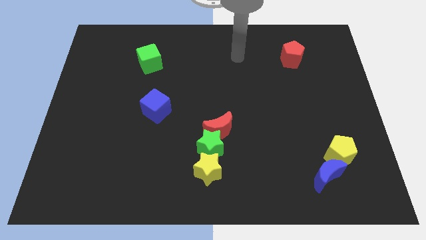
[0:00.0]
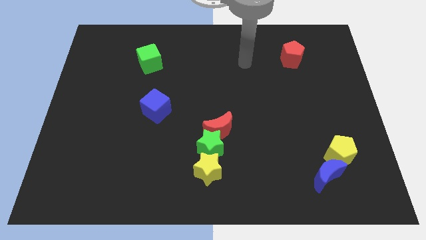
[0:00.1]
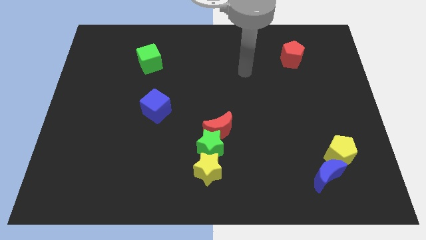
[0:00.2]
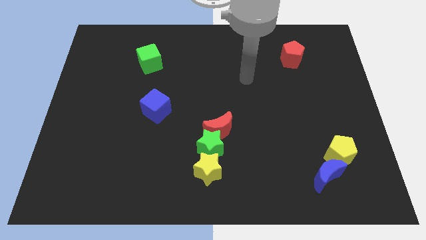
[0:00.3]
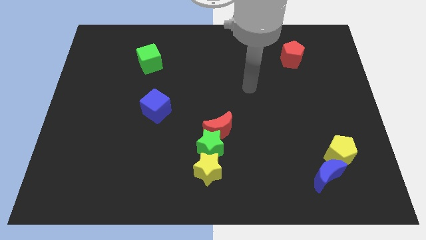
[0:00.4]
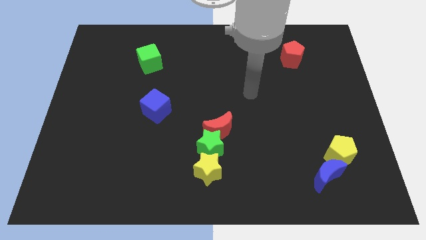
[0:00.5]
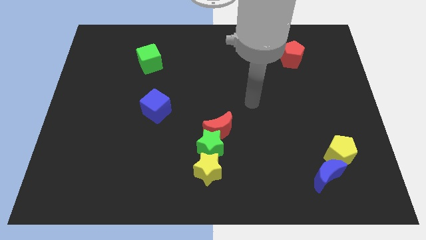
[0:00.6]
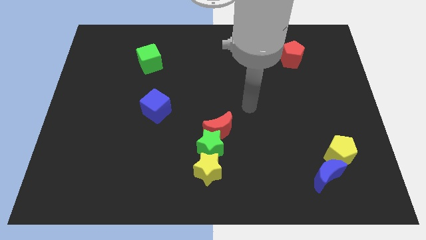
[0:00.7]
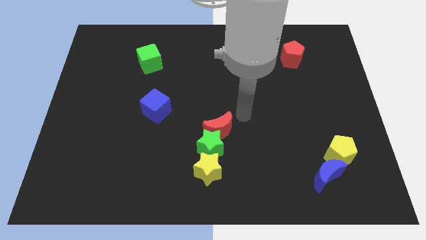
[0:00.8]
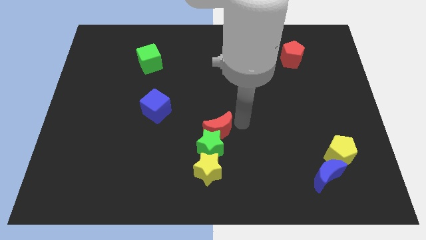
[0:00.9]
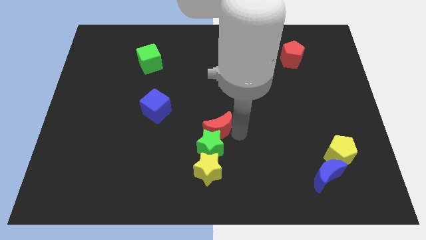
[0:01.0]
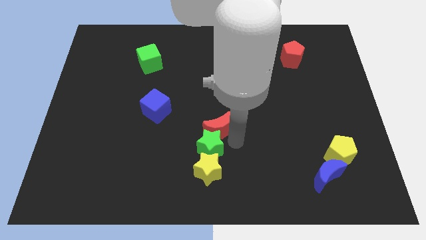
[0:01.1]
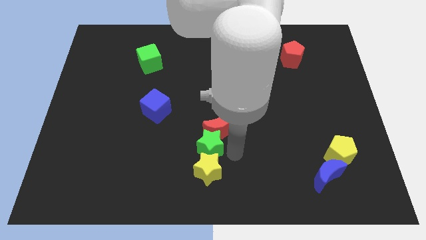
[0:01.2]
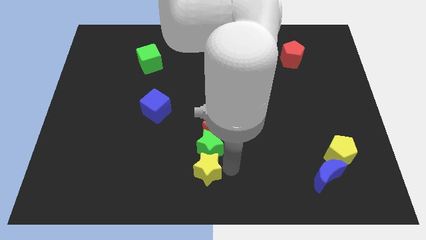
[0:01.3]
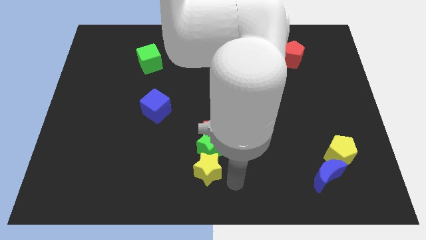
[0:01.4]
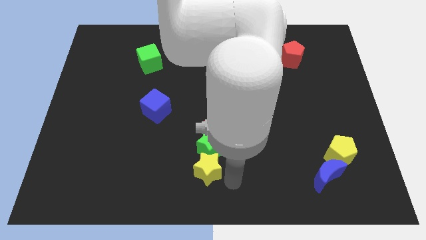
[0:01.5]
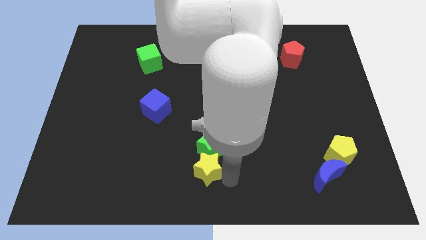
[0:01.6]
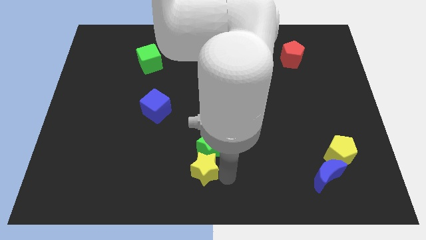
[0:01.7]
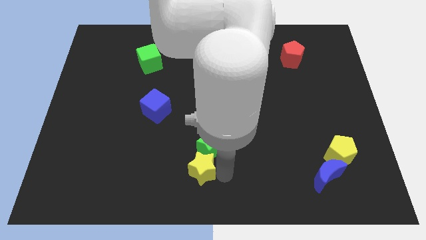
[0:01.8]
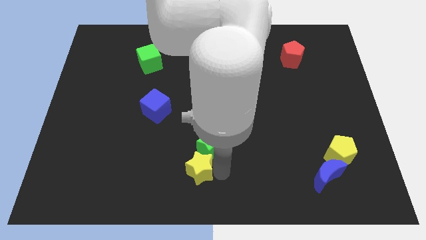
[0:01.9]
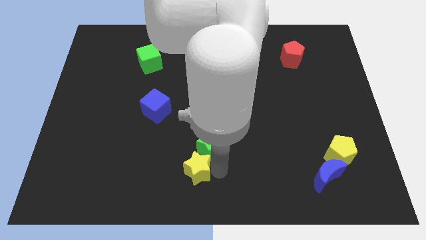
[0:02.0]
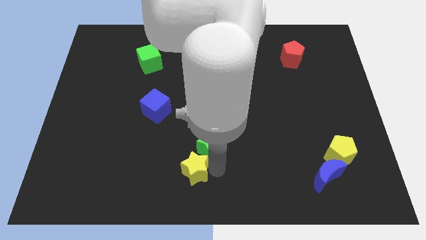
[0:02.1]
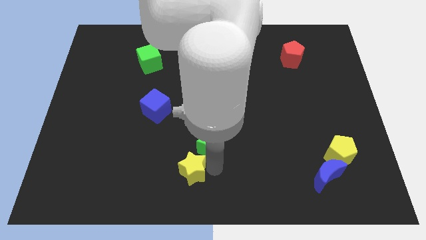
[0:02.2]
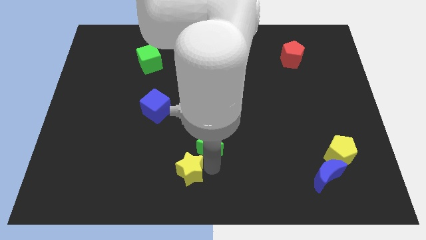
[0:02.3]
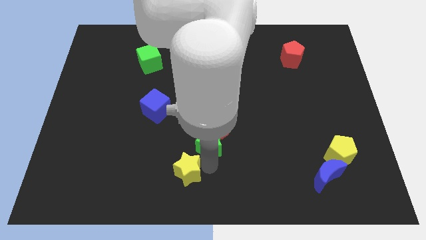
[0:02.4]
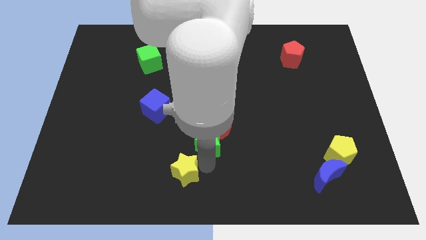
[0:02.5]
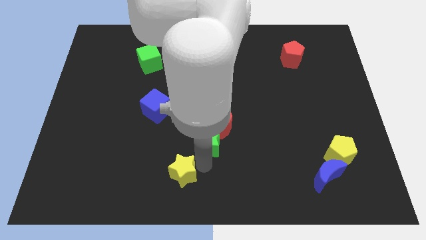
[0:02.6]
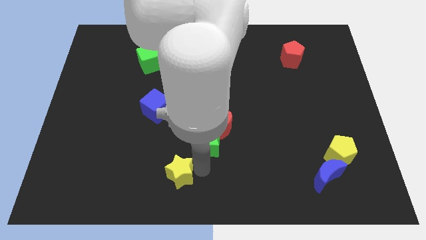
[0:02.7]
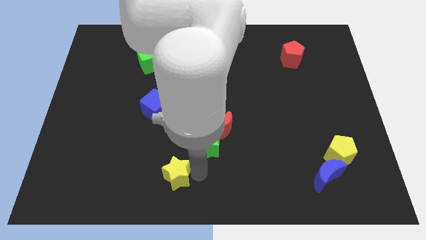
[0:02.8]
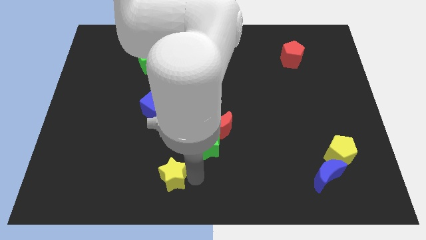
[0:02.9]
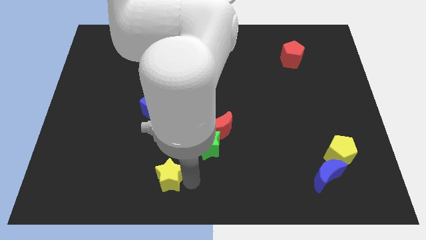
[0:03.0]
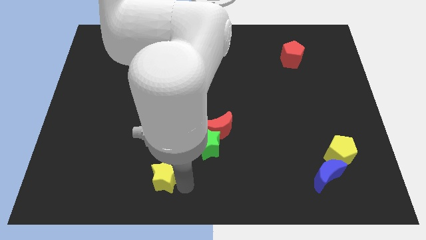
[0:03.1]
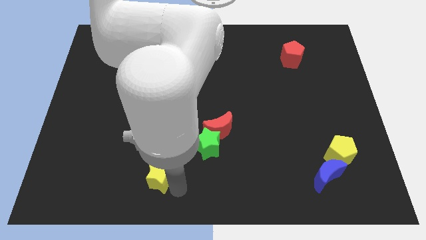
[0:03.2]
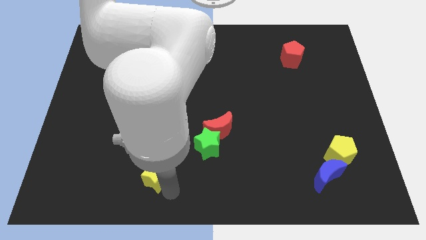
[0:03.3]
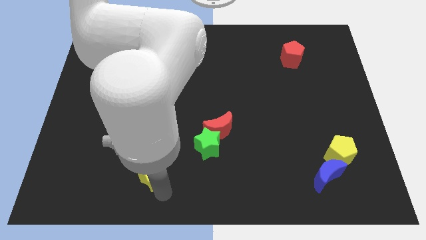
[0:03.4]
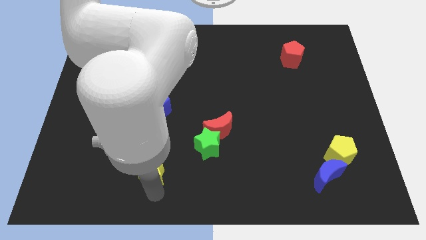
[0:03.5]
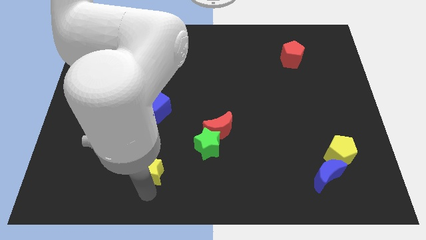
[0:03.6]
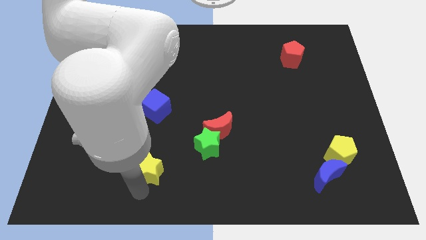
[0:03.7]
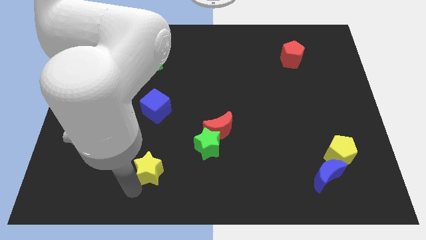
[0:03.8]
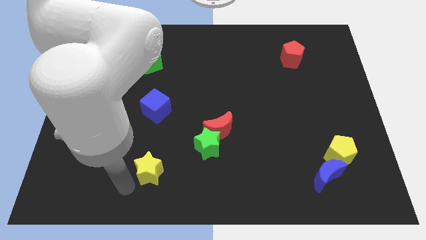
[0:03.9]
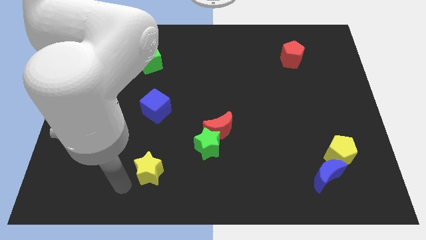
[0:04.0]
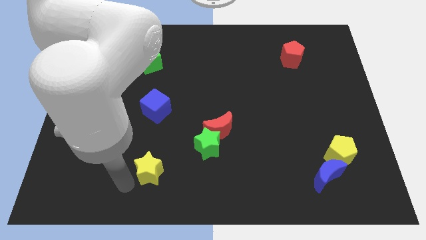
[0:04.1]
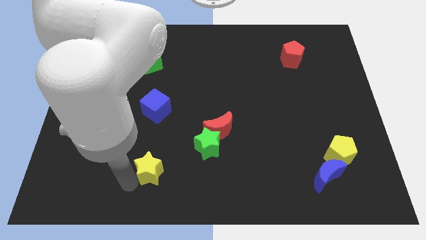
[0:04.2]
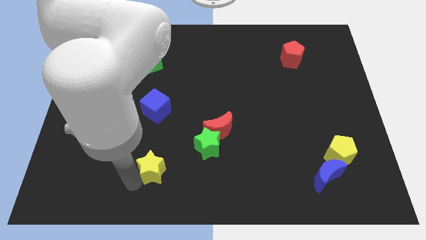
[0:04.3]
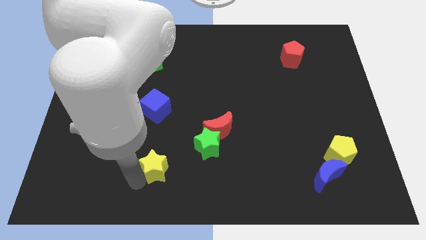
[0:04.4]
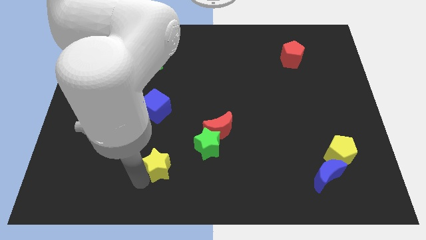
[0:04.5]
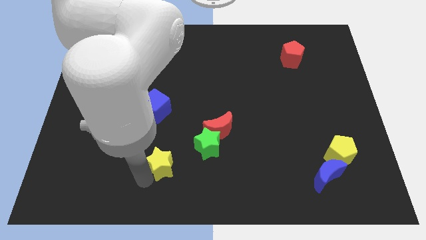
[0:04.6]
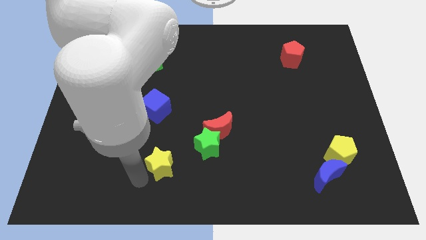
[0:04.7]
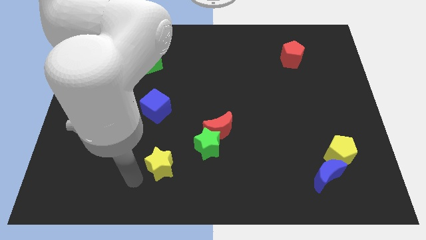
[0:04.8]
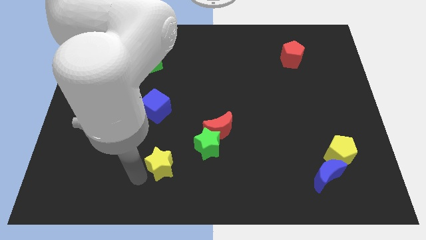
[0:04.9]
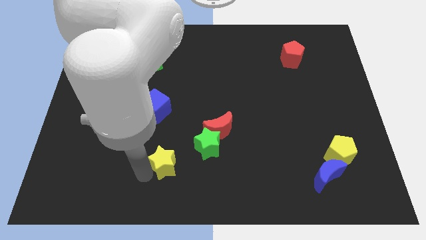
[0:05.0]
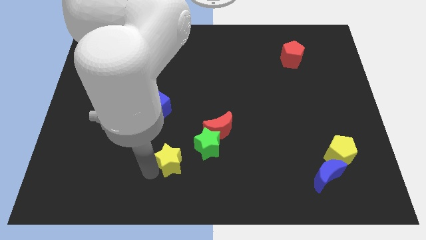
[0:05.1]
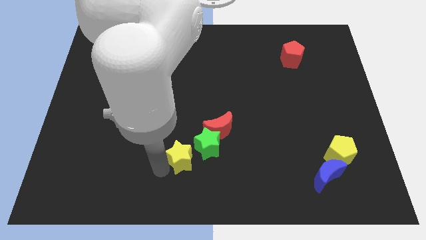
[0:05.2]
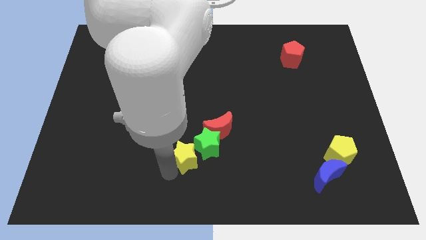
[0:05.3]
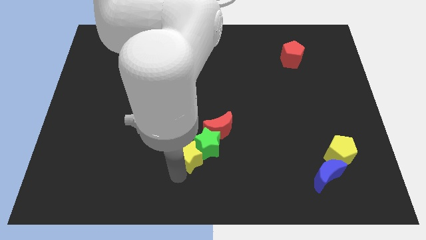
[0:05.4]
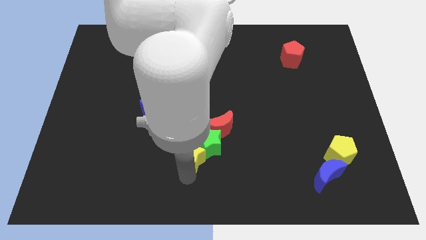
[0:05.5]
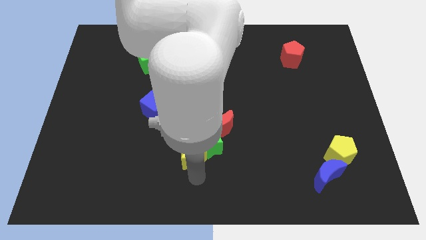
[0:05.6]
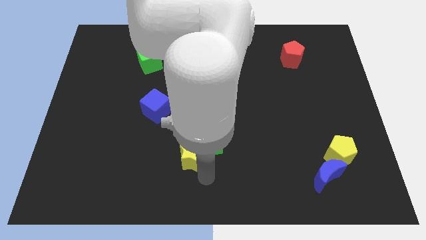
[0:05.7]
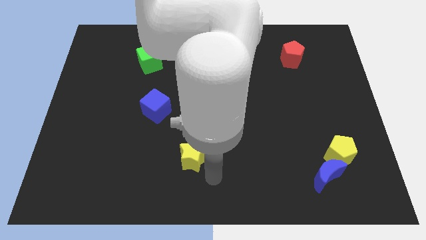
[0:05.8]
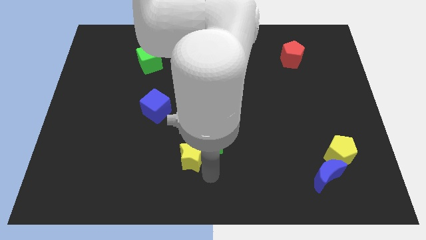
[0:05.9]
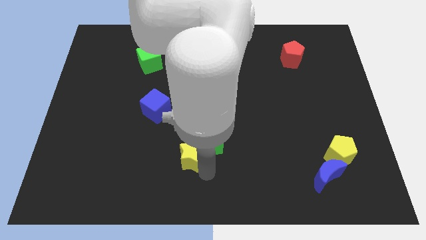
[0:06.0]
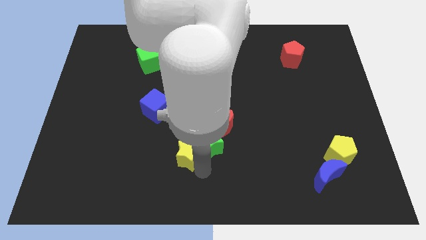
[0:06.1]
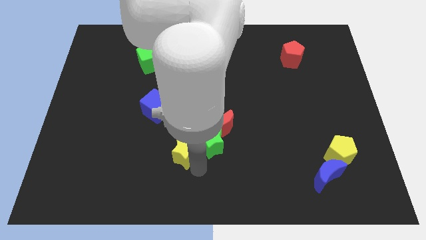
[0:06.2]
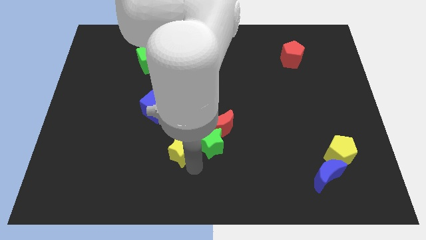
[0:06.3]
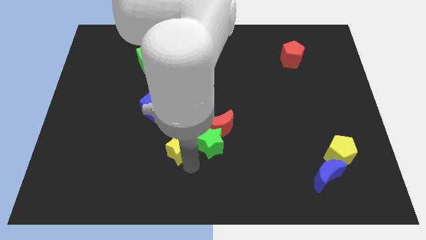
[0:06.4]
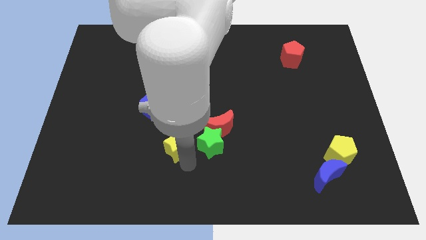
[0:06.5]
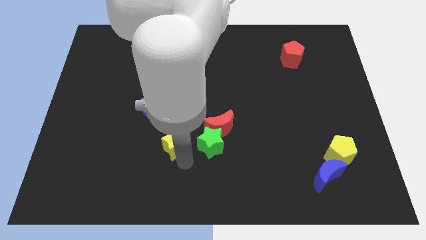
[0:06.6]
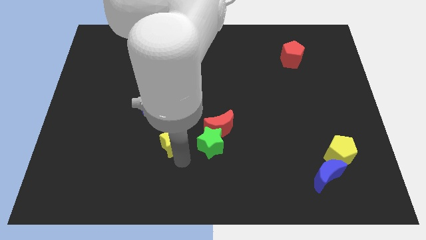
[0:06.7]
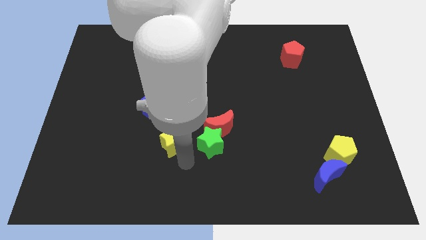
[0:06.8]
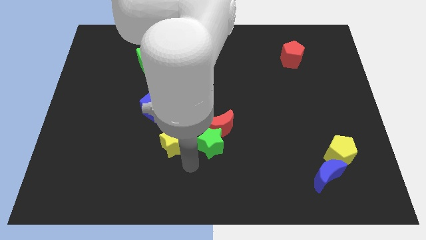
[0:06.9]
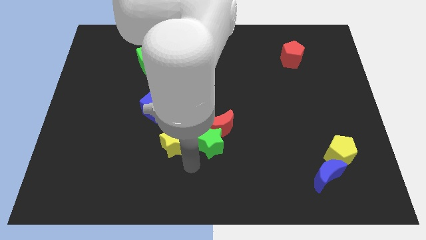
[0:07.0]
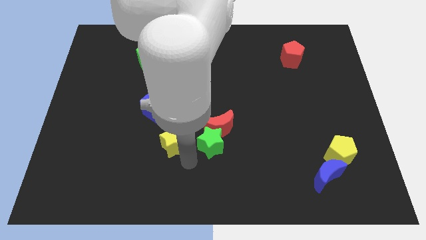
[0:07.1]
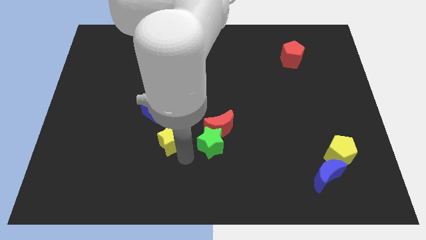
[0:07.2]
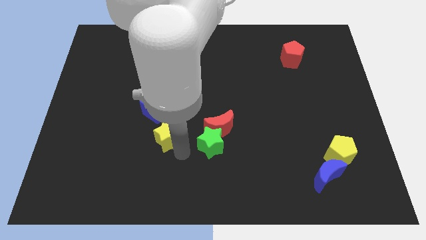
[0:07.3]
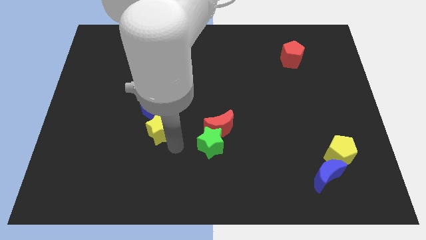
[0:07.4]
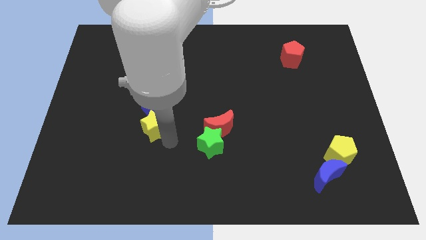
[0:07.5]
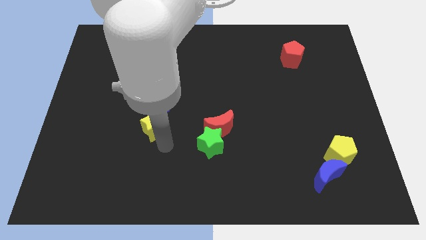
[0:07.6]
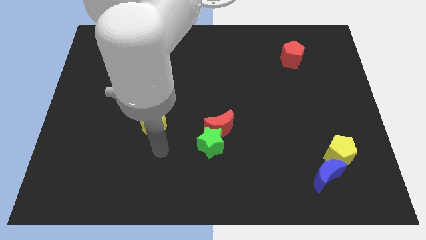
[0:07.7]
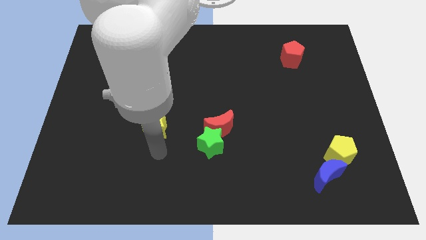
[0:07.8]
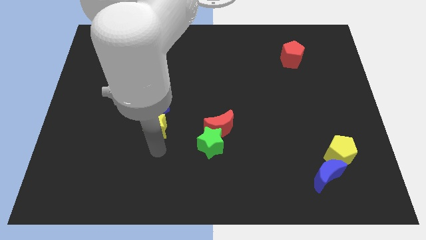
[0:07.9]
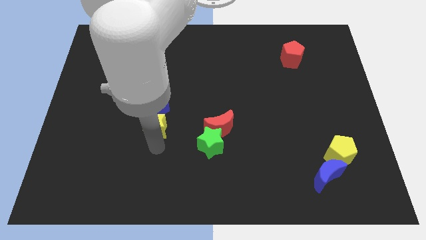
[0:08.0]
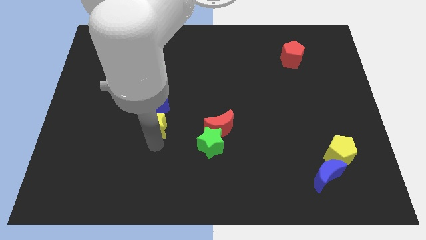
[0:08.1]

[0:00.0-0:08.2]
put the yellow star towards the blue cube
